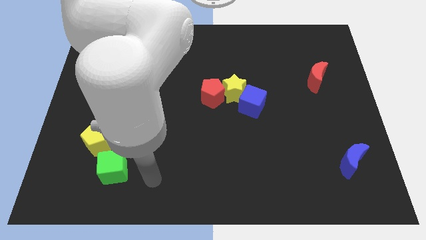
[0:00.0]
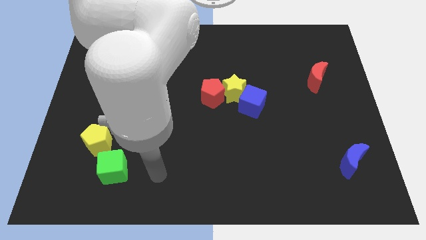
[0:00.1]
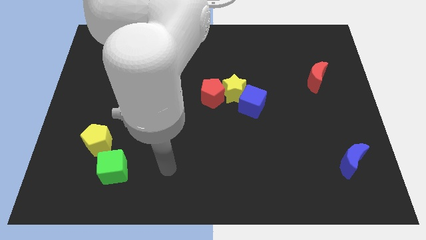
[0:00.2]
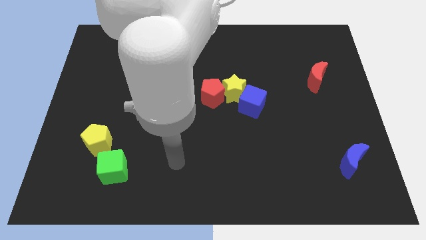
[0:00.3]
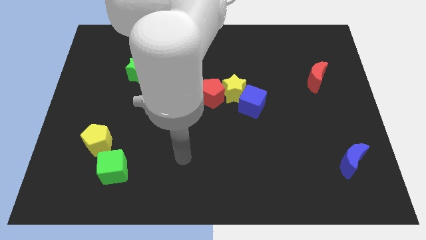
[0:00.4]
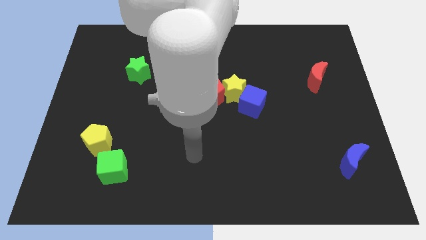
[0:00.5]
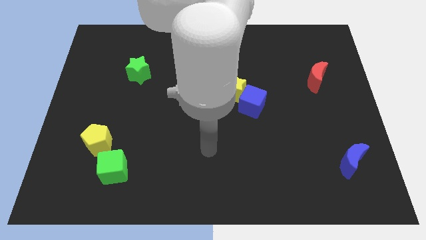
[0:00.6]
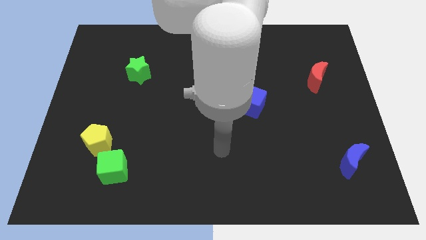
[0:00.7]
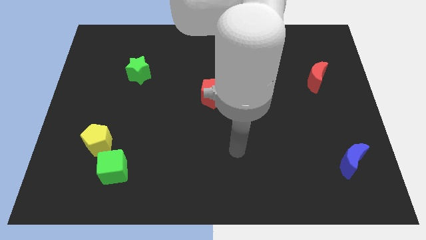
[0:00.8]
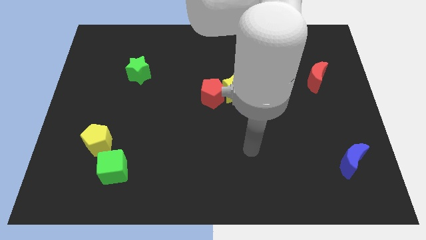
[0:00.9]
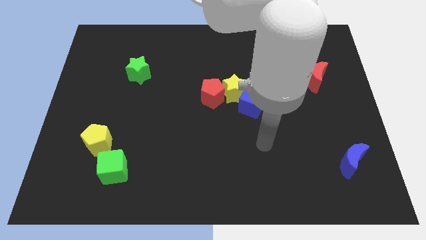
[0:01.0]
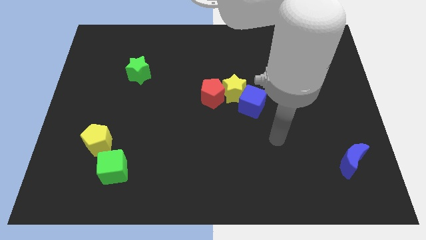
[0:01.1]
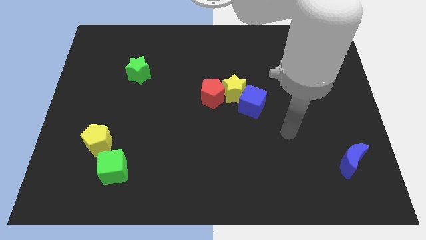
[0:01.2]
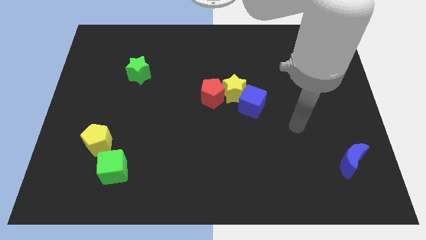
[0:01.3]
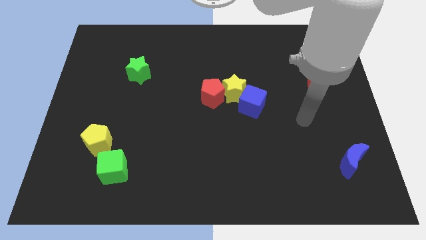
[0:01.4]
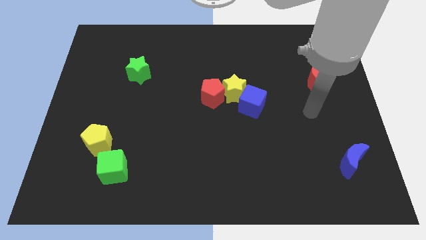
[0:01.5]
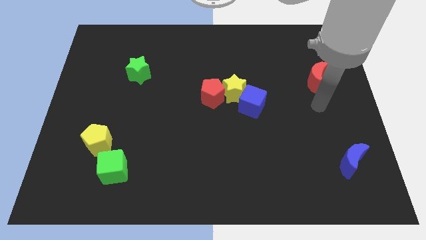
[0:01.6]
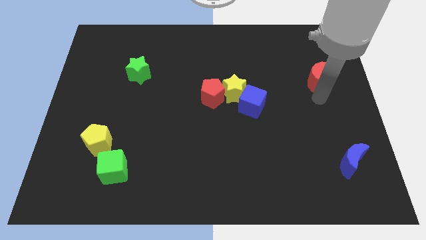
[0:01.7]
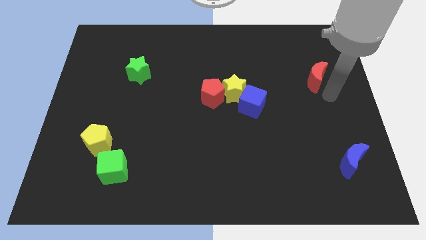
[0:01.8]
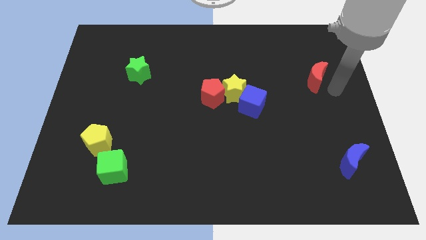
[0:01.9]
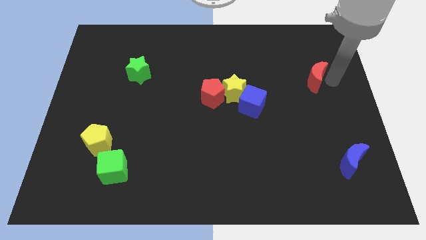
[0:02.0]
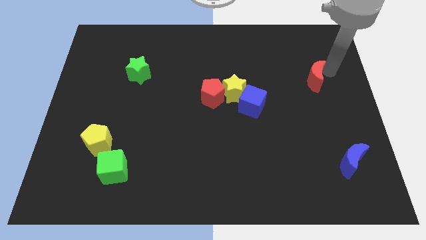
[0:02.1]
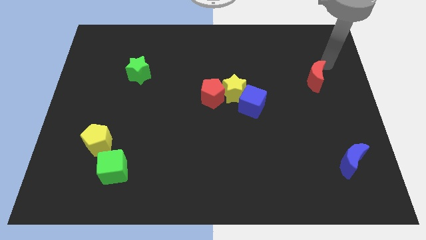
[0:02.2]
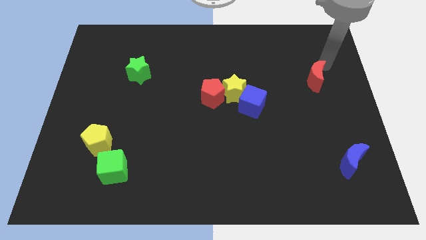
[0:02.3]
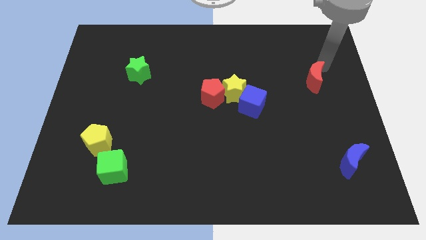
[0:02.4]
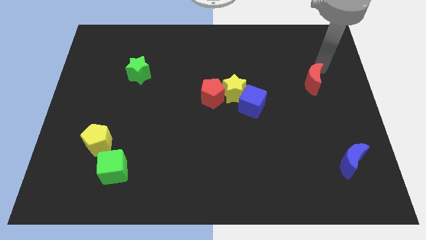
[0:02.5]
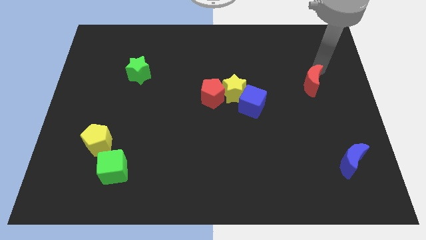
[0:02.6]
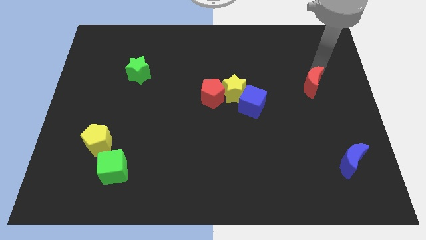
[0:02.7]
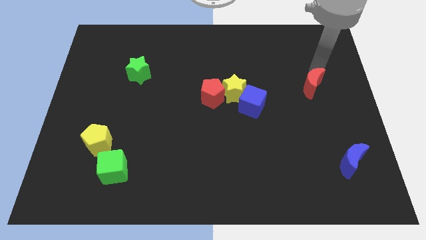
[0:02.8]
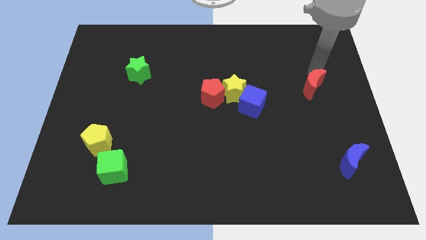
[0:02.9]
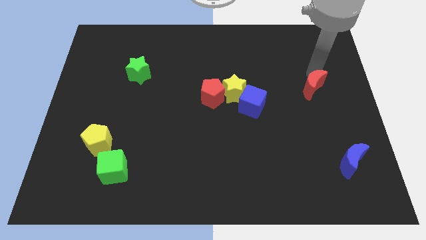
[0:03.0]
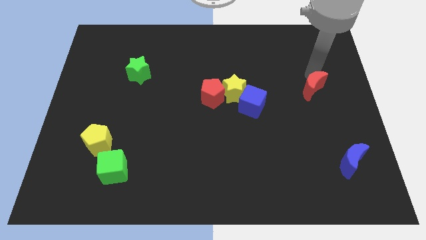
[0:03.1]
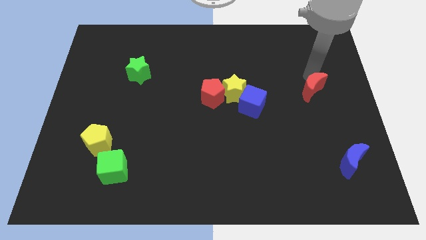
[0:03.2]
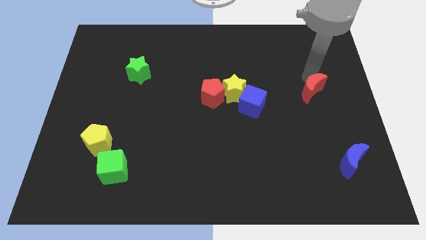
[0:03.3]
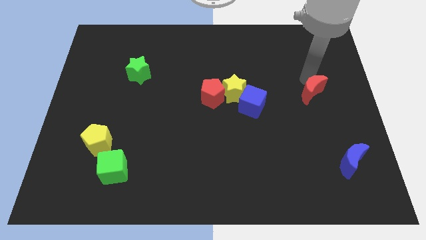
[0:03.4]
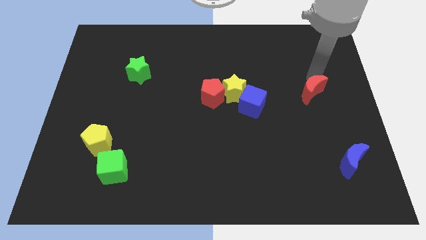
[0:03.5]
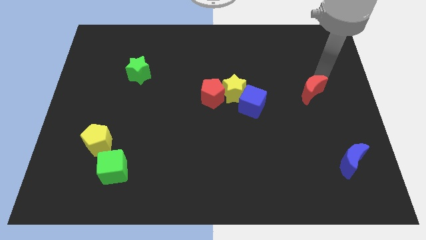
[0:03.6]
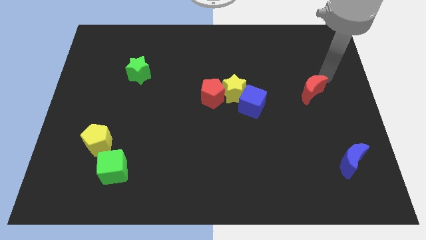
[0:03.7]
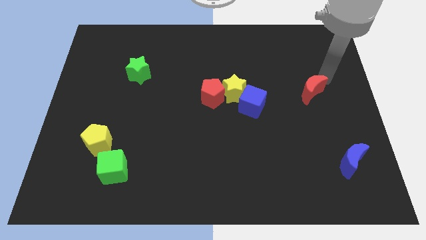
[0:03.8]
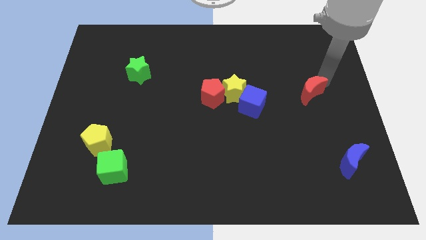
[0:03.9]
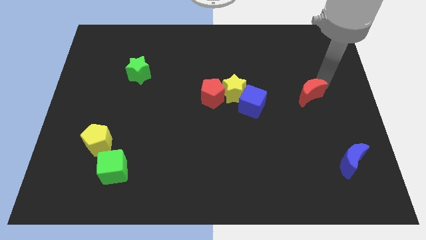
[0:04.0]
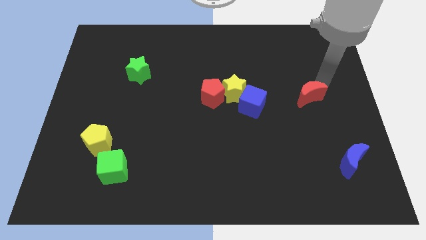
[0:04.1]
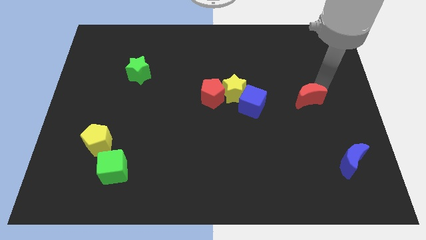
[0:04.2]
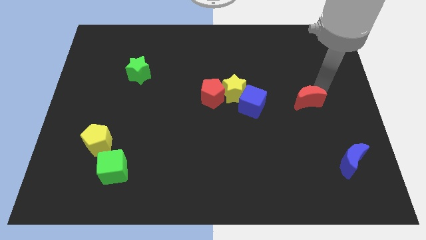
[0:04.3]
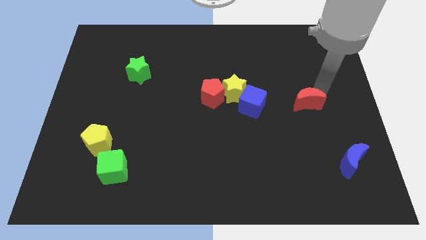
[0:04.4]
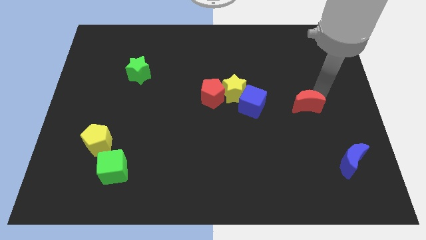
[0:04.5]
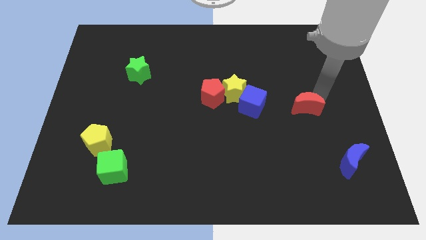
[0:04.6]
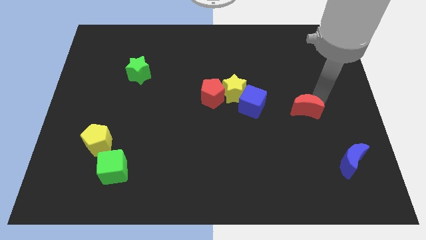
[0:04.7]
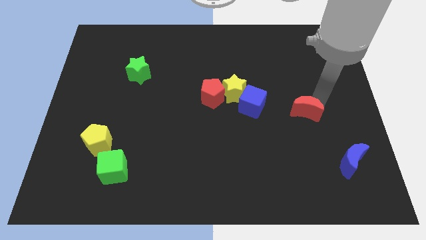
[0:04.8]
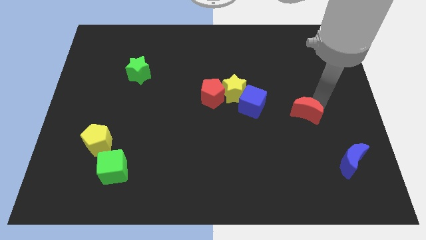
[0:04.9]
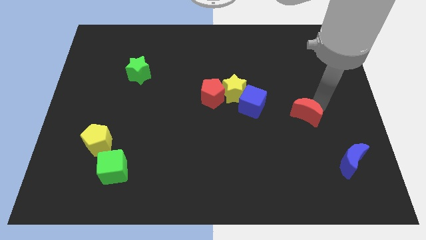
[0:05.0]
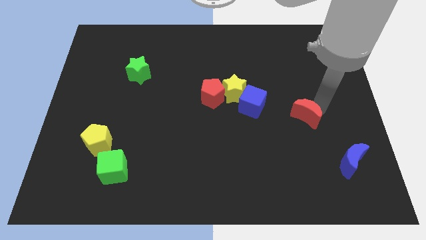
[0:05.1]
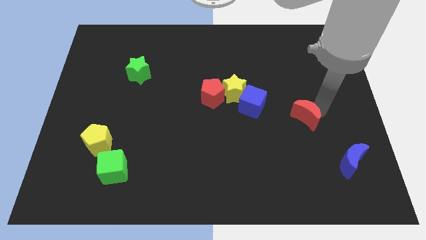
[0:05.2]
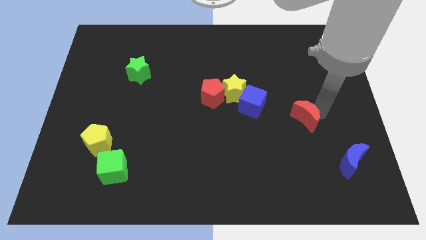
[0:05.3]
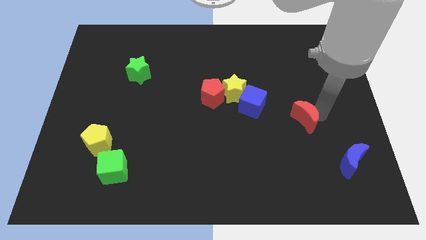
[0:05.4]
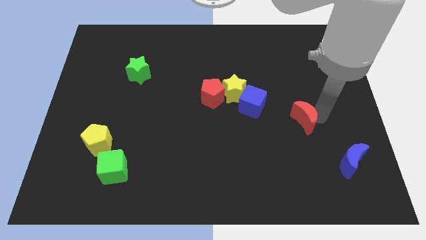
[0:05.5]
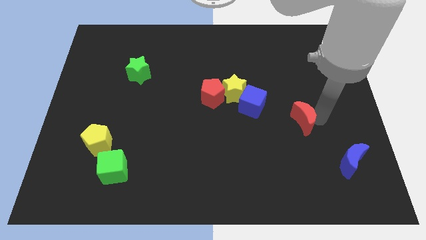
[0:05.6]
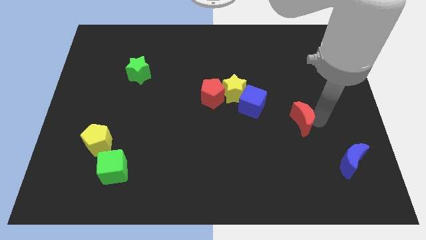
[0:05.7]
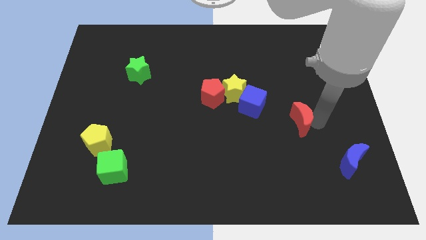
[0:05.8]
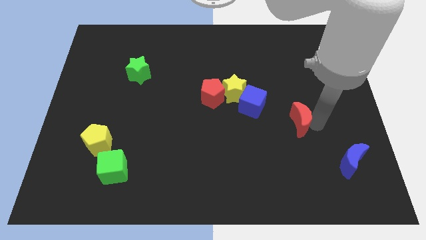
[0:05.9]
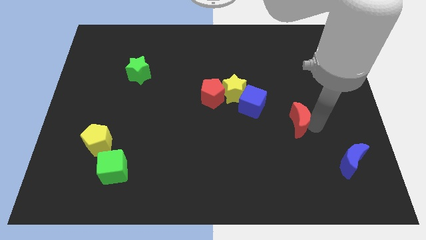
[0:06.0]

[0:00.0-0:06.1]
put the red moon to the bottom right of the blue cube

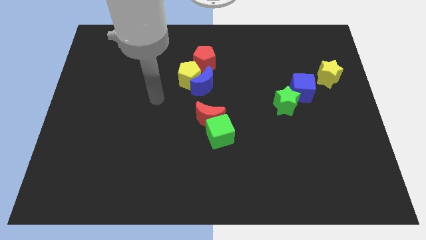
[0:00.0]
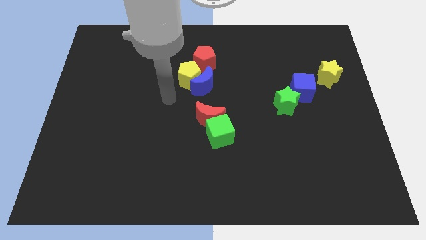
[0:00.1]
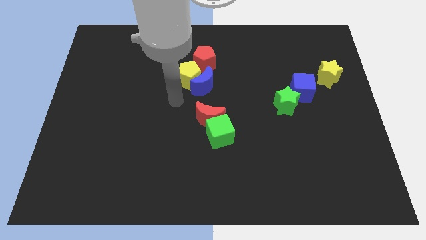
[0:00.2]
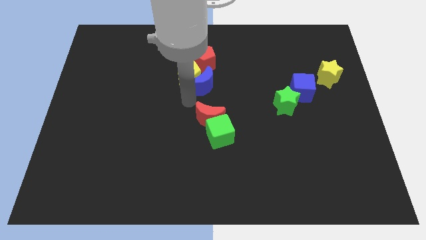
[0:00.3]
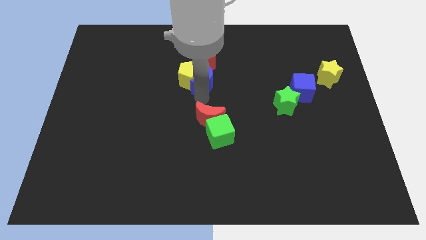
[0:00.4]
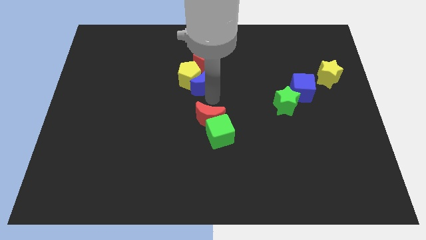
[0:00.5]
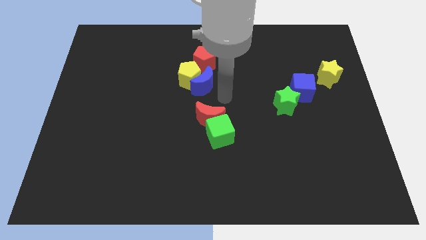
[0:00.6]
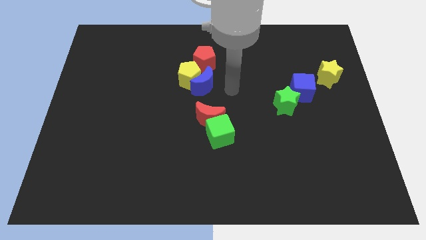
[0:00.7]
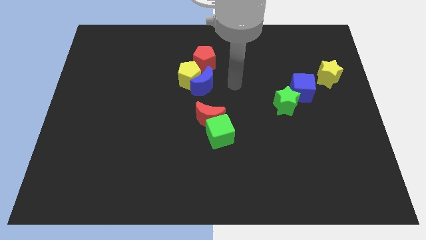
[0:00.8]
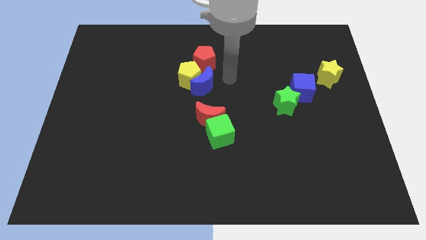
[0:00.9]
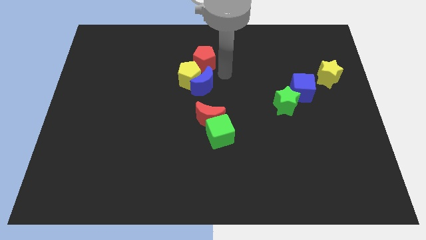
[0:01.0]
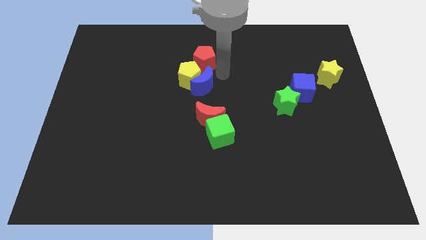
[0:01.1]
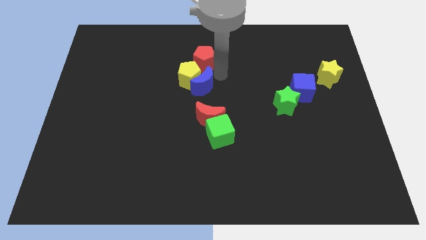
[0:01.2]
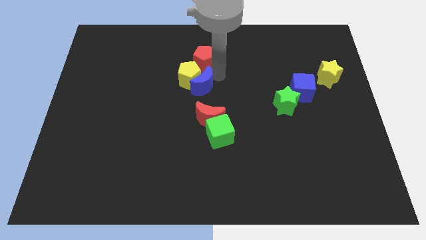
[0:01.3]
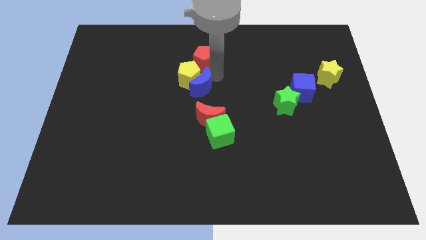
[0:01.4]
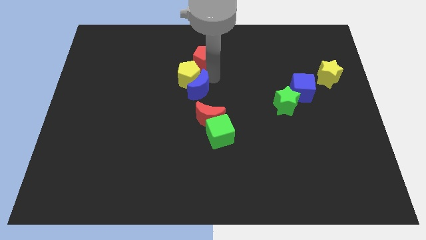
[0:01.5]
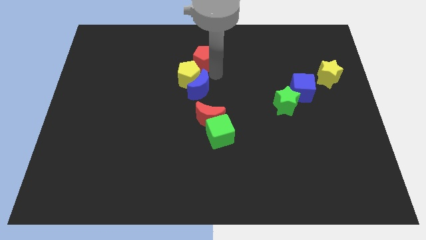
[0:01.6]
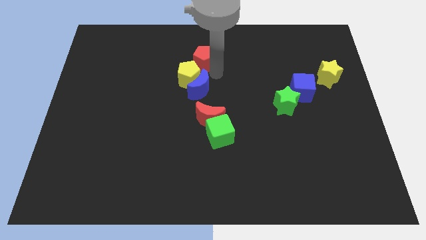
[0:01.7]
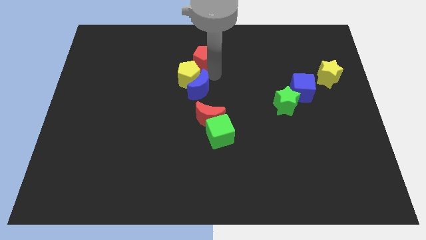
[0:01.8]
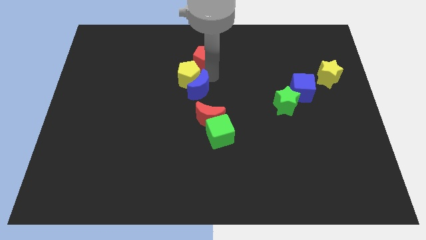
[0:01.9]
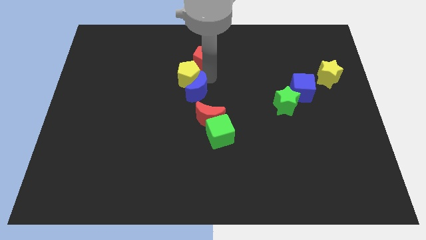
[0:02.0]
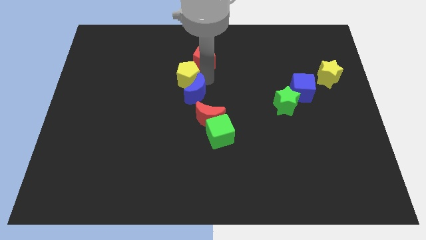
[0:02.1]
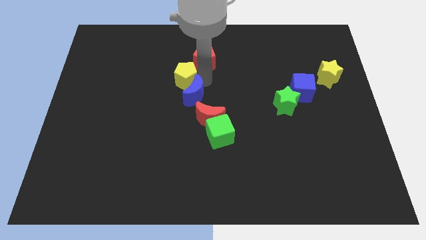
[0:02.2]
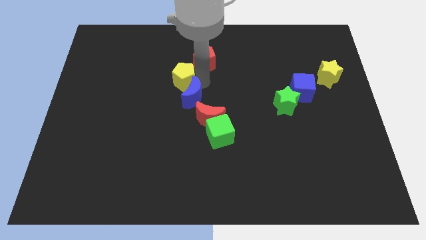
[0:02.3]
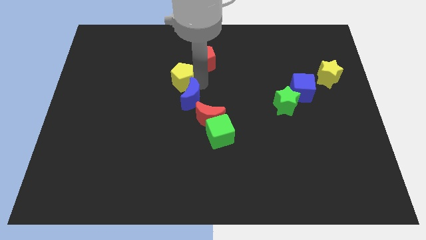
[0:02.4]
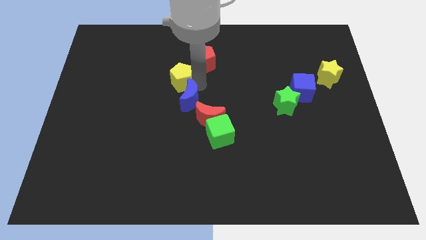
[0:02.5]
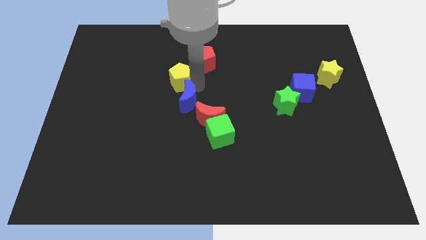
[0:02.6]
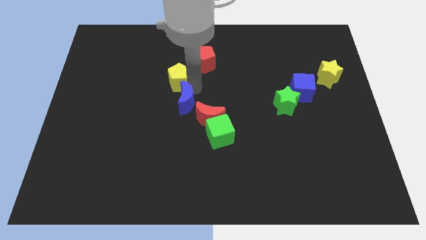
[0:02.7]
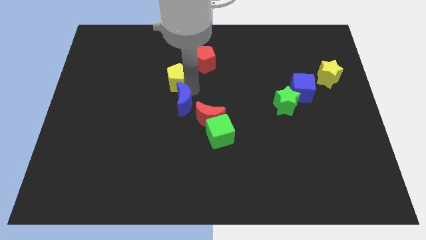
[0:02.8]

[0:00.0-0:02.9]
push the blue moon to the left of the red moon
